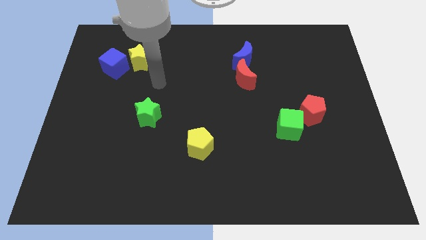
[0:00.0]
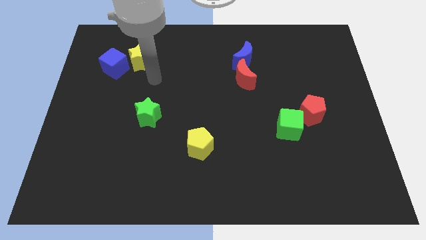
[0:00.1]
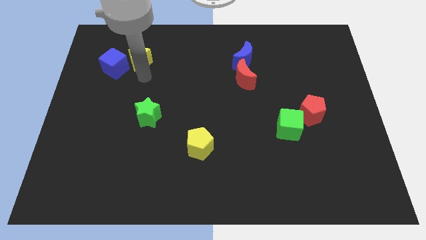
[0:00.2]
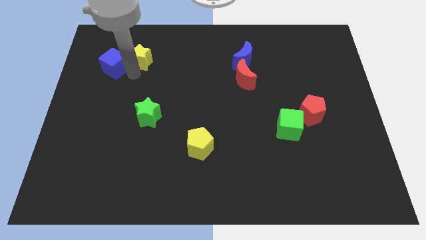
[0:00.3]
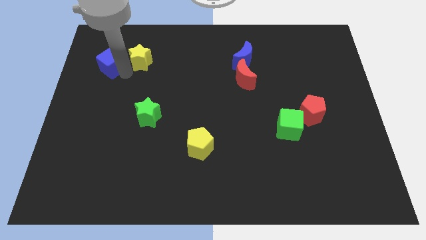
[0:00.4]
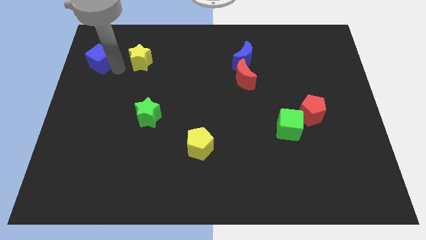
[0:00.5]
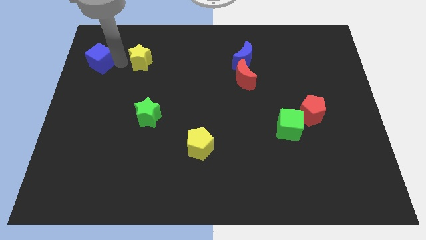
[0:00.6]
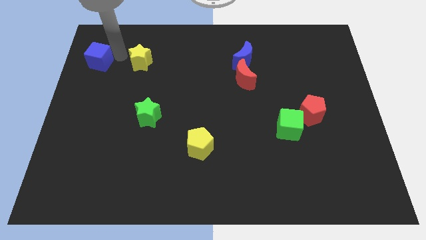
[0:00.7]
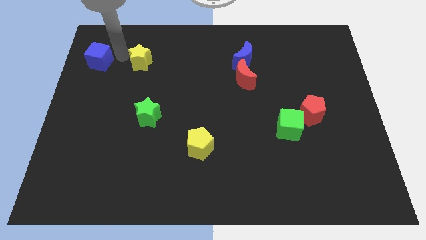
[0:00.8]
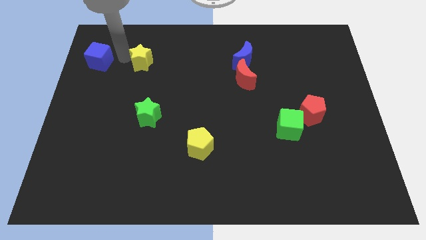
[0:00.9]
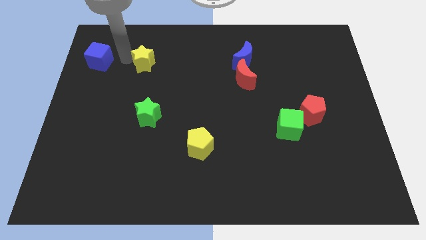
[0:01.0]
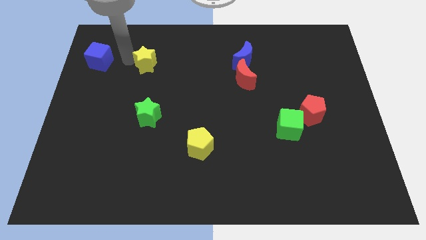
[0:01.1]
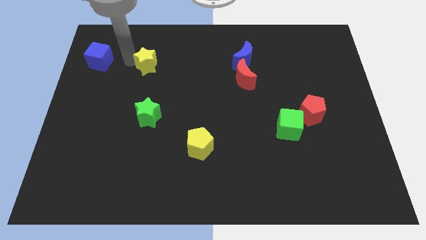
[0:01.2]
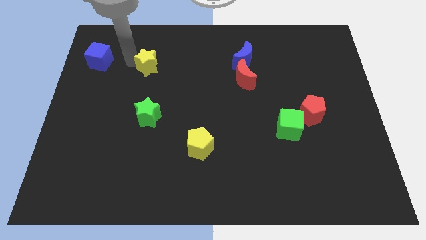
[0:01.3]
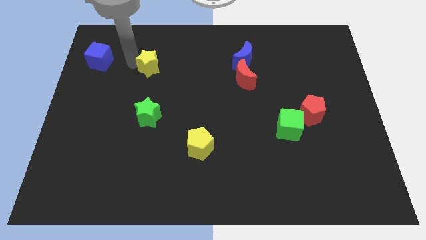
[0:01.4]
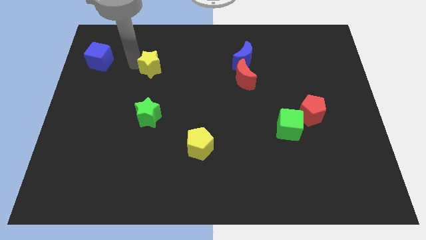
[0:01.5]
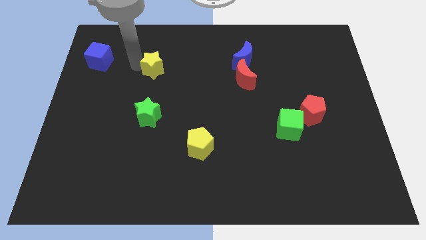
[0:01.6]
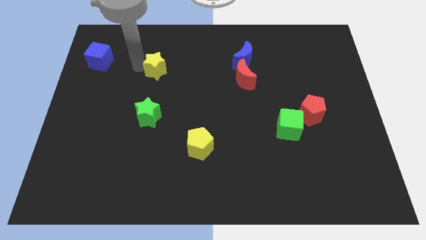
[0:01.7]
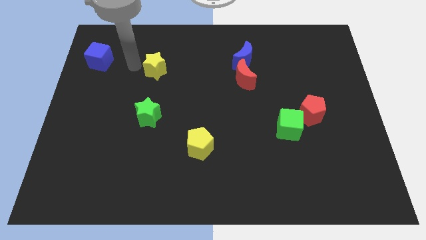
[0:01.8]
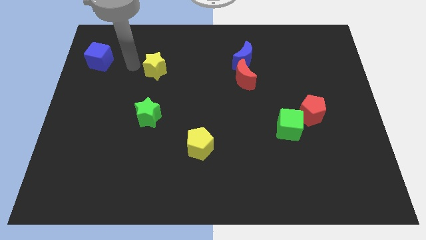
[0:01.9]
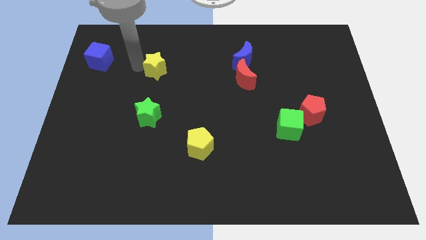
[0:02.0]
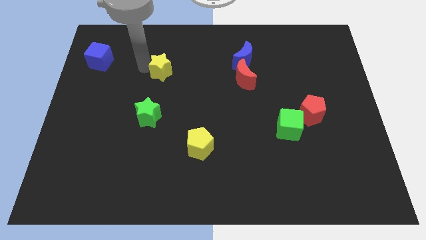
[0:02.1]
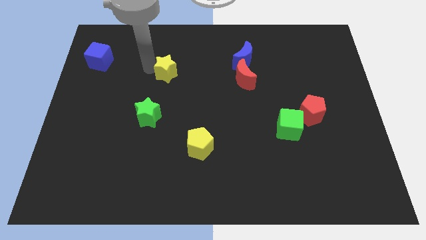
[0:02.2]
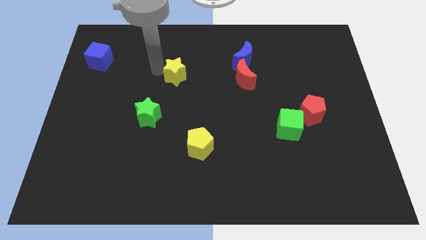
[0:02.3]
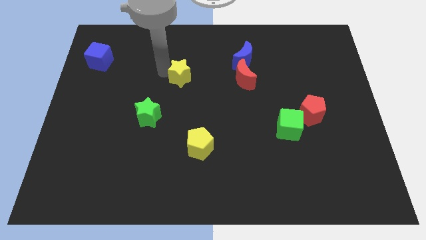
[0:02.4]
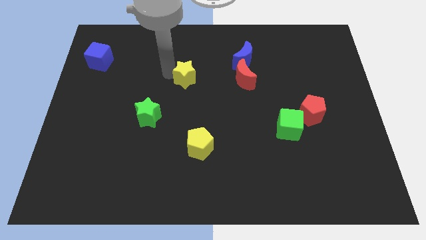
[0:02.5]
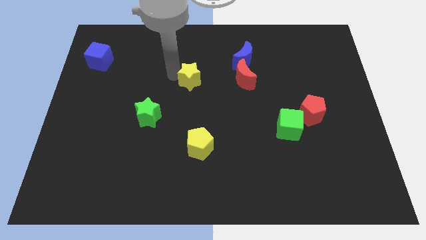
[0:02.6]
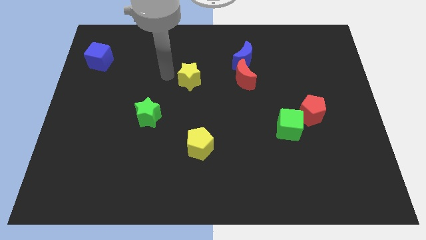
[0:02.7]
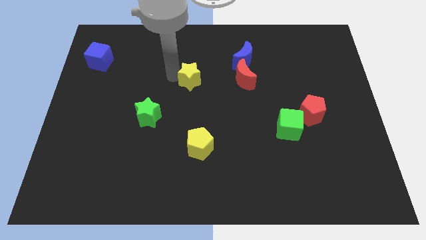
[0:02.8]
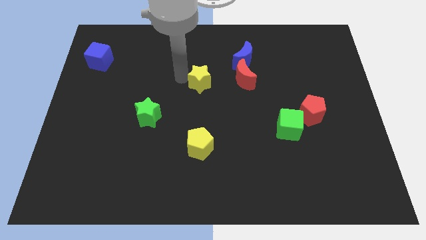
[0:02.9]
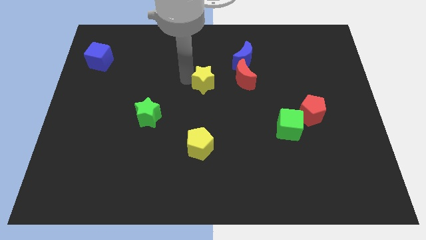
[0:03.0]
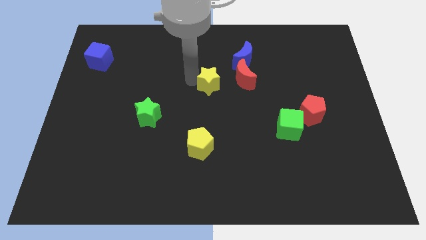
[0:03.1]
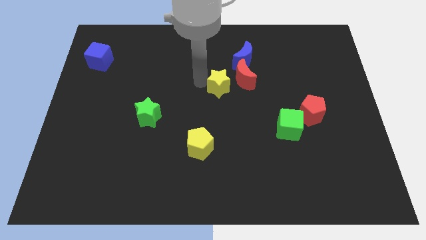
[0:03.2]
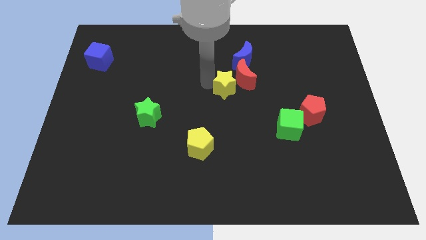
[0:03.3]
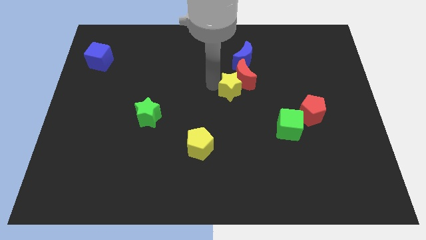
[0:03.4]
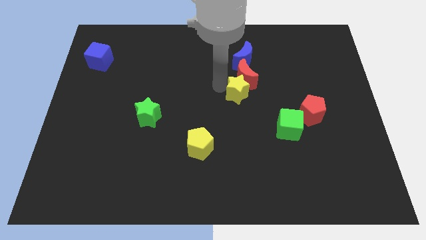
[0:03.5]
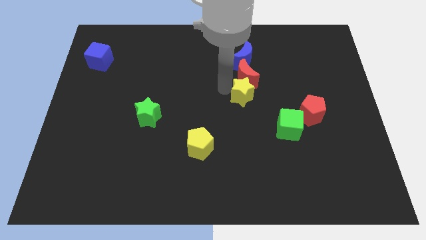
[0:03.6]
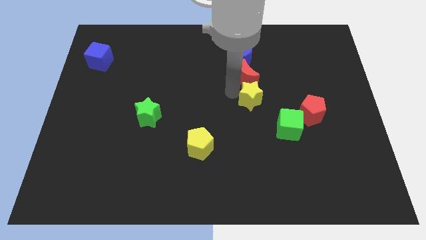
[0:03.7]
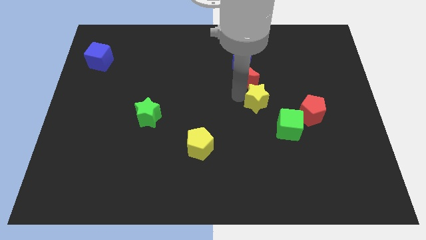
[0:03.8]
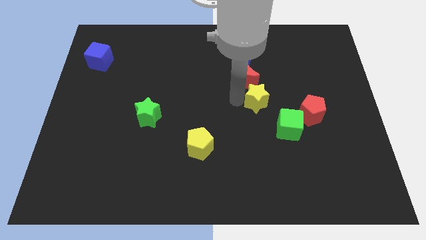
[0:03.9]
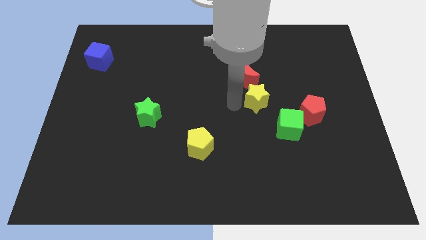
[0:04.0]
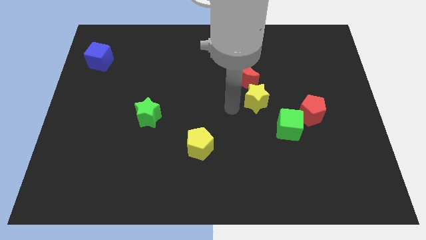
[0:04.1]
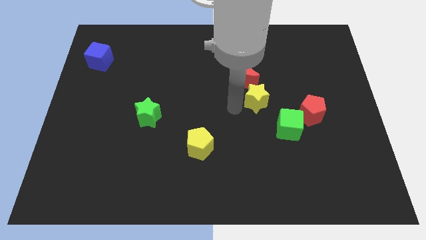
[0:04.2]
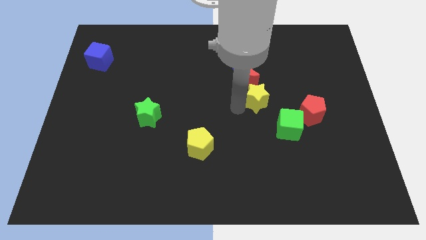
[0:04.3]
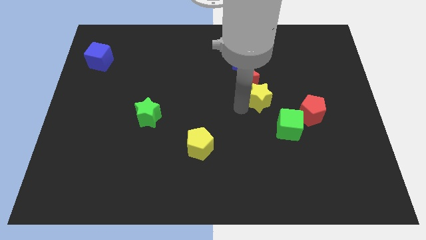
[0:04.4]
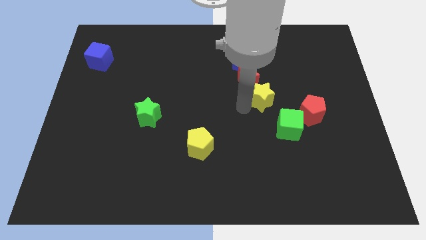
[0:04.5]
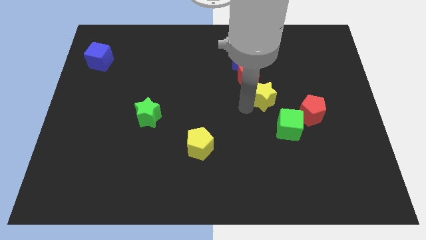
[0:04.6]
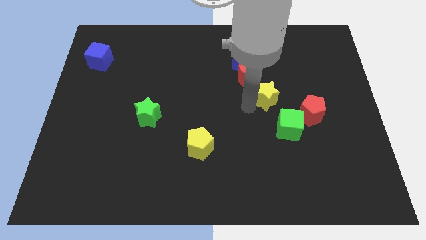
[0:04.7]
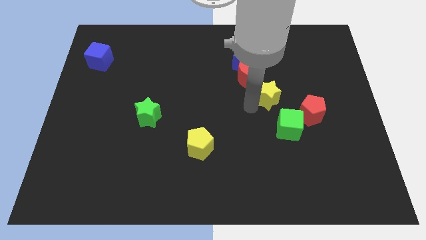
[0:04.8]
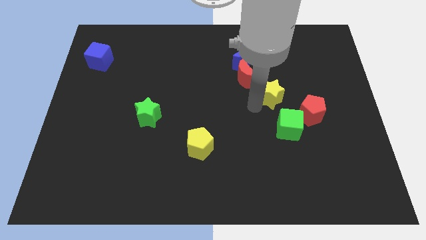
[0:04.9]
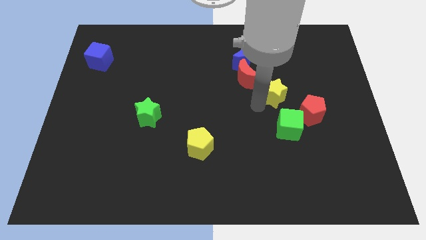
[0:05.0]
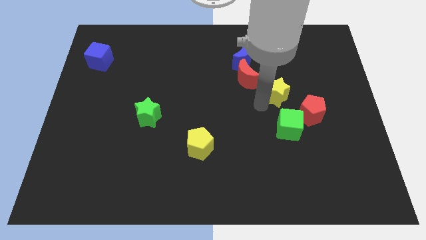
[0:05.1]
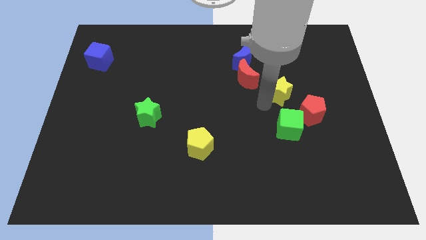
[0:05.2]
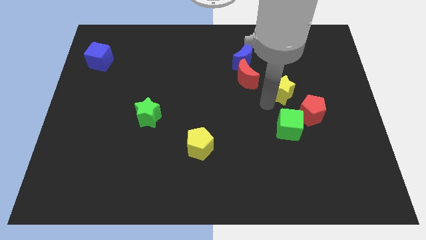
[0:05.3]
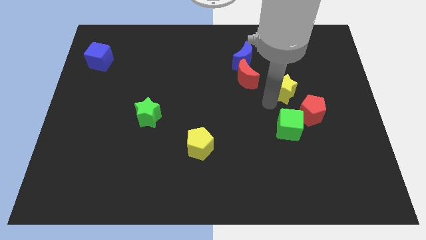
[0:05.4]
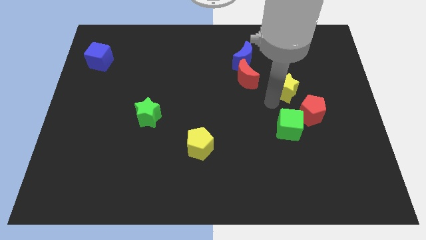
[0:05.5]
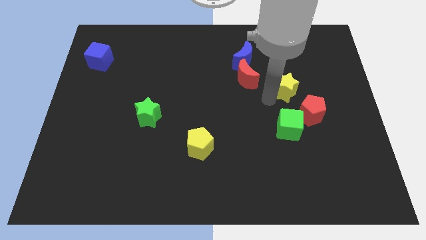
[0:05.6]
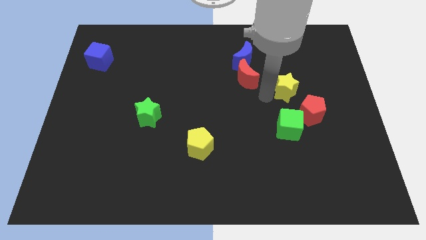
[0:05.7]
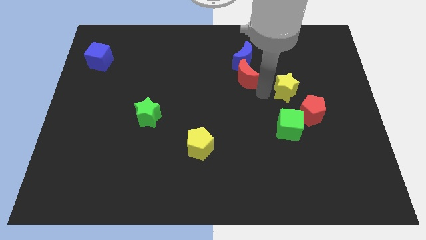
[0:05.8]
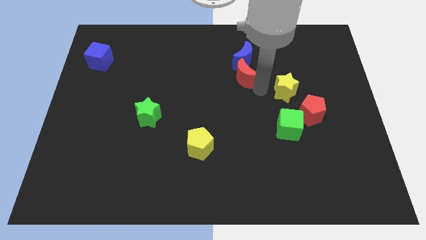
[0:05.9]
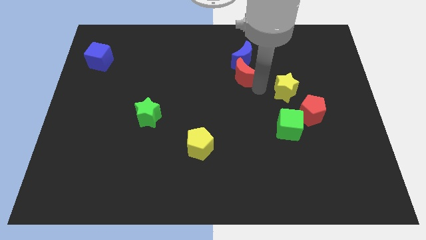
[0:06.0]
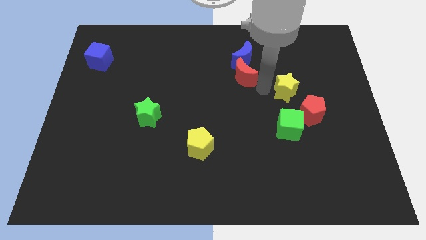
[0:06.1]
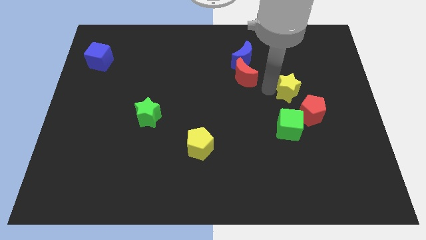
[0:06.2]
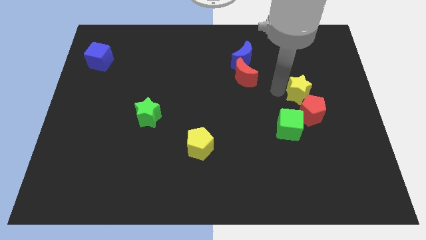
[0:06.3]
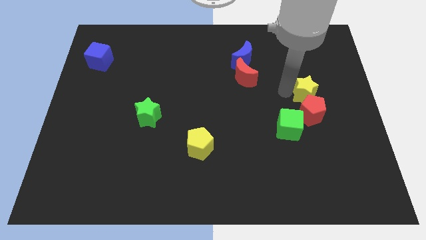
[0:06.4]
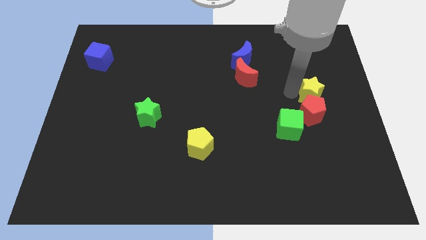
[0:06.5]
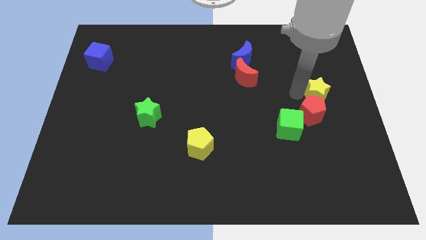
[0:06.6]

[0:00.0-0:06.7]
move the yellow star to the center right

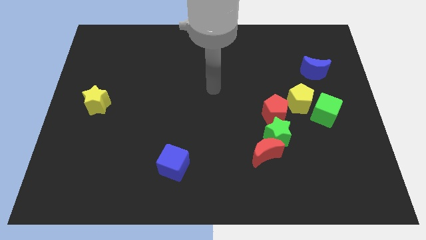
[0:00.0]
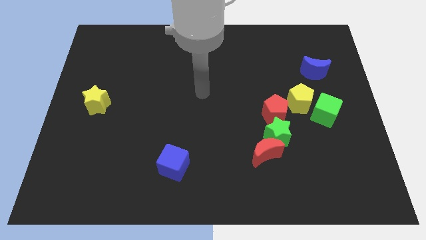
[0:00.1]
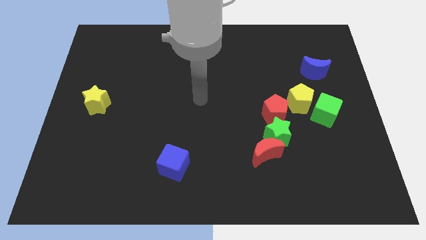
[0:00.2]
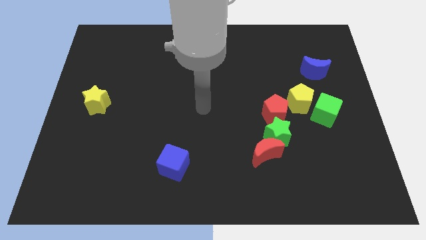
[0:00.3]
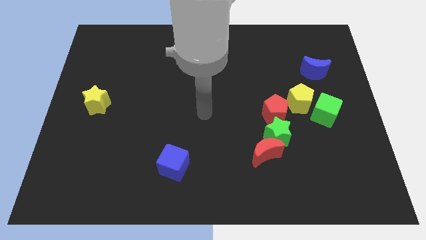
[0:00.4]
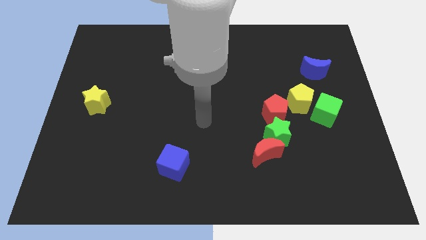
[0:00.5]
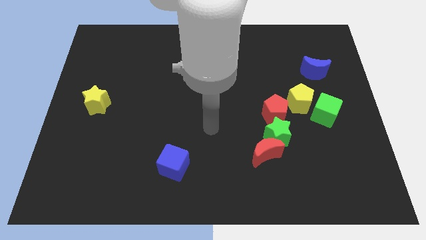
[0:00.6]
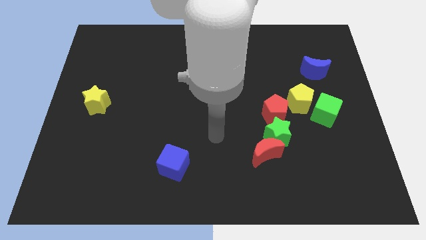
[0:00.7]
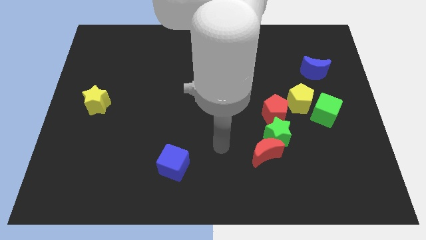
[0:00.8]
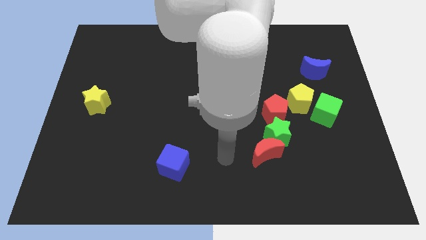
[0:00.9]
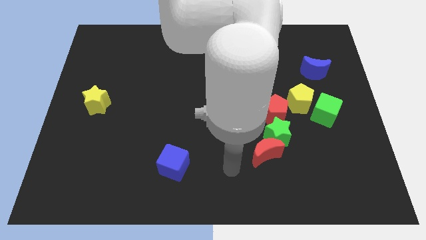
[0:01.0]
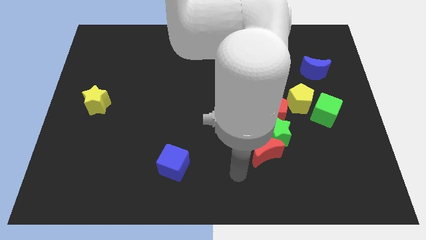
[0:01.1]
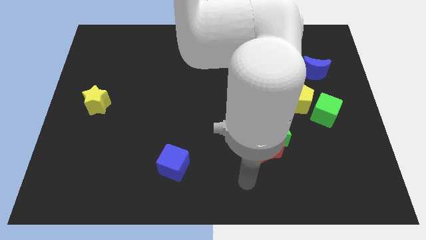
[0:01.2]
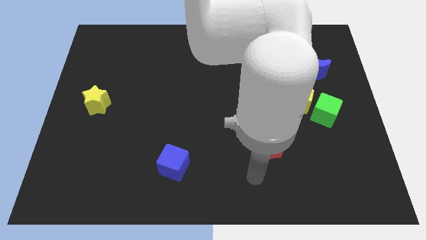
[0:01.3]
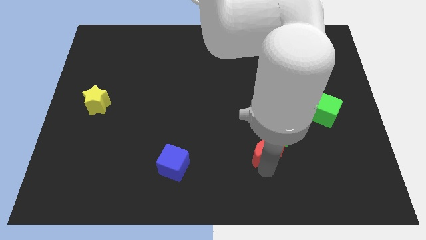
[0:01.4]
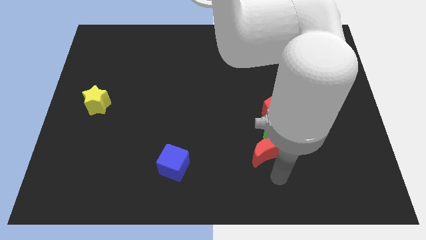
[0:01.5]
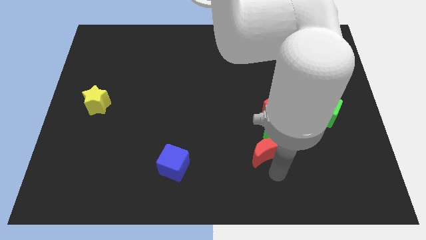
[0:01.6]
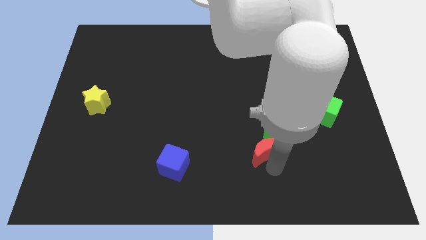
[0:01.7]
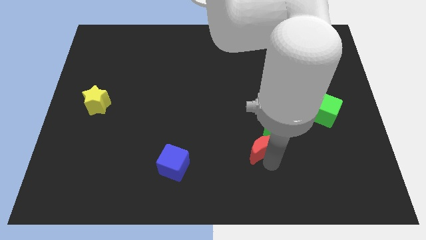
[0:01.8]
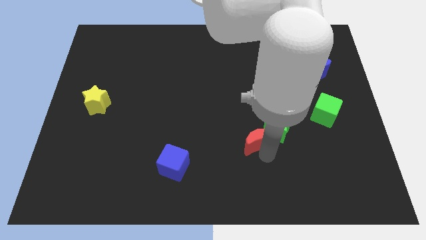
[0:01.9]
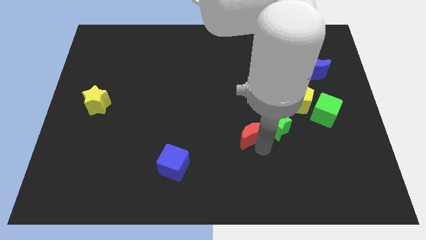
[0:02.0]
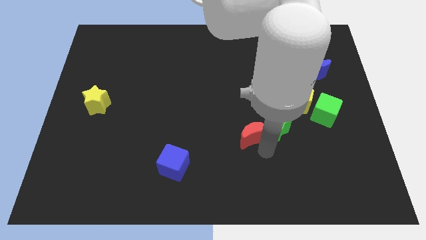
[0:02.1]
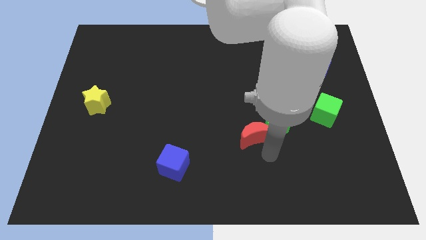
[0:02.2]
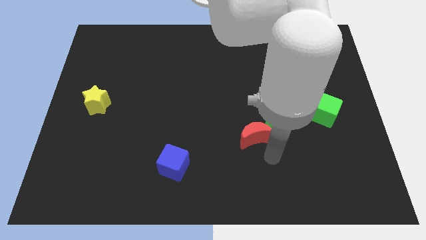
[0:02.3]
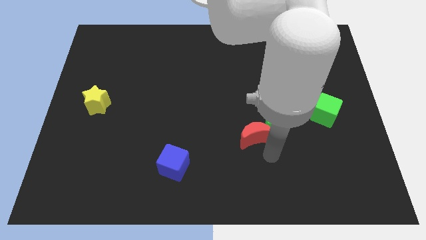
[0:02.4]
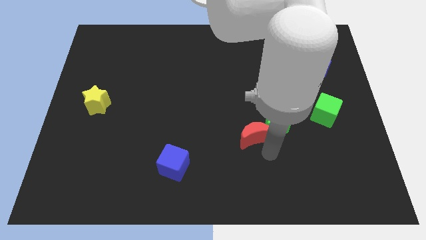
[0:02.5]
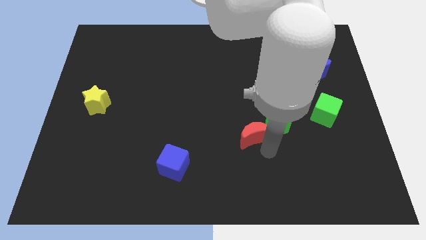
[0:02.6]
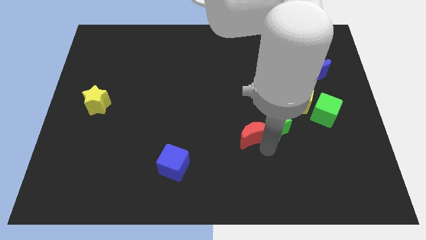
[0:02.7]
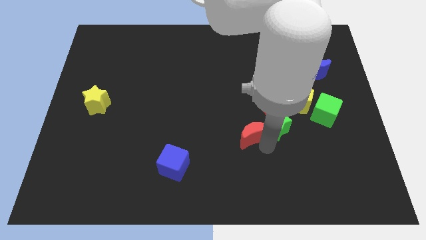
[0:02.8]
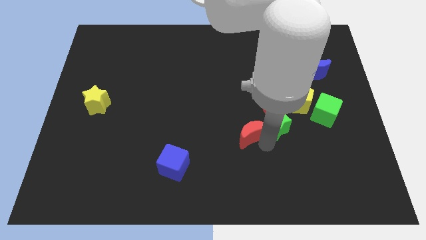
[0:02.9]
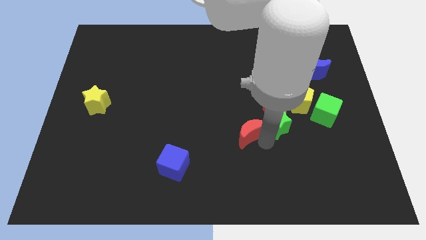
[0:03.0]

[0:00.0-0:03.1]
put the red moon to the middle
